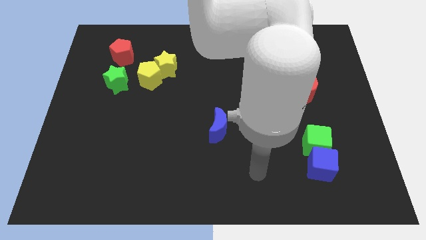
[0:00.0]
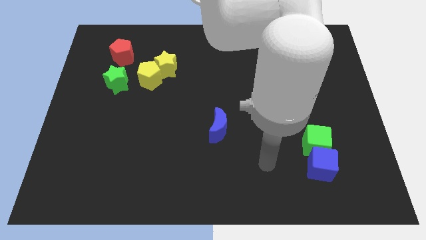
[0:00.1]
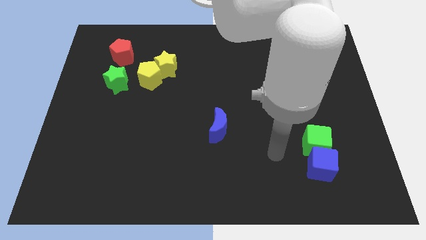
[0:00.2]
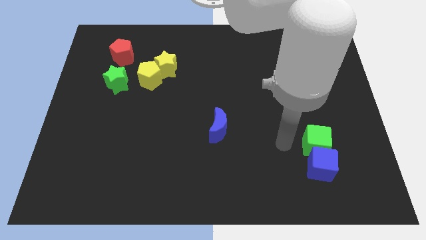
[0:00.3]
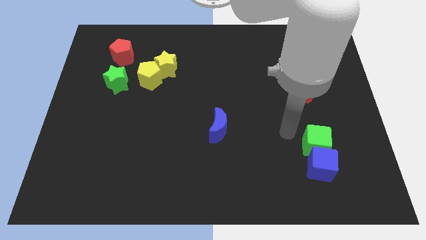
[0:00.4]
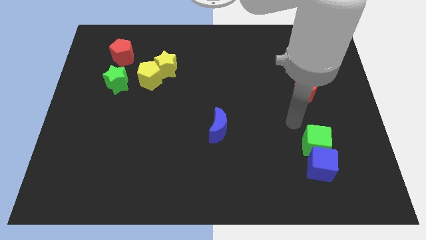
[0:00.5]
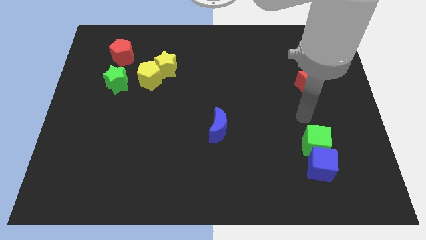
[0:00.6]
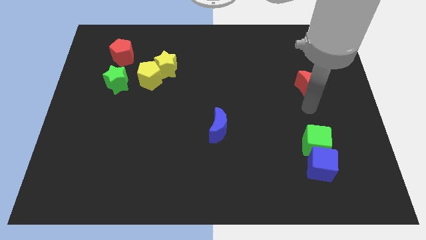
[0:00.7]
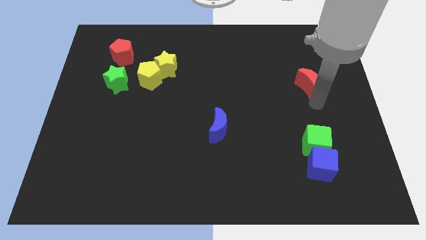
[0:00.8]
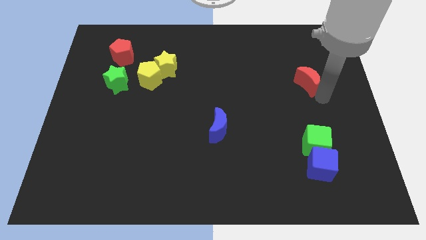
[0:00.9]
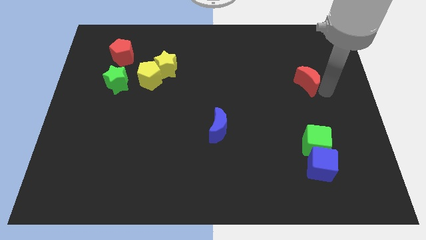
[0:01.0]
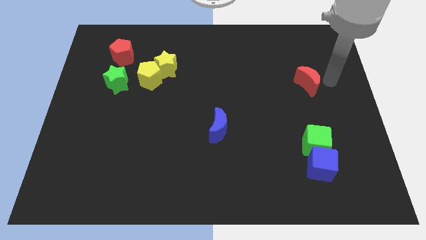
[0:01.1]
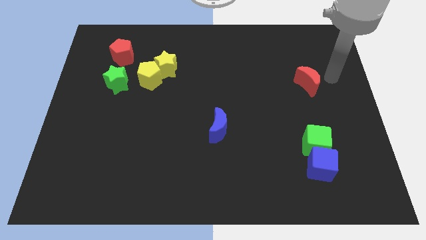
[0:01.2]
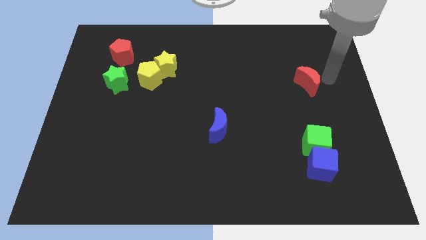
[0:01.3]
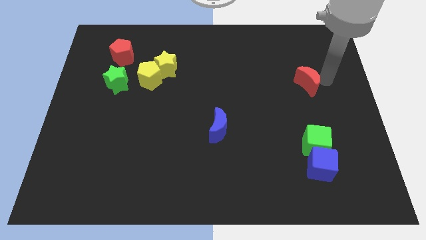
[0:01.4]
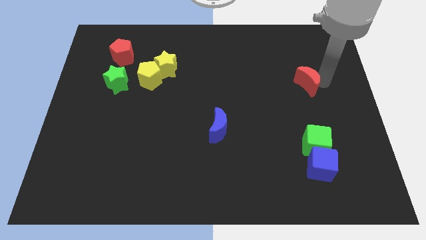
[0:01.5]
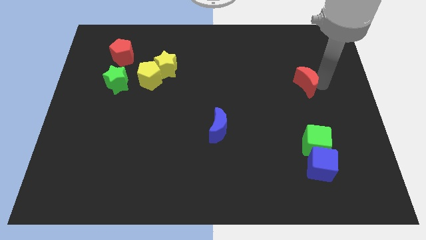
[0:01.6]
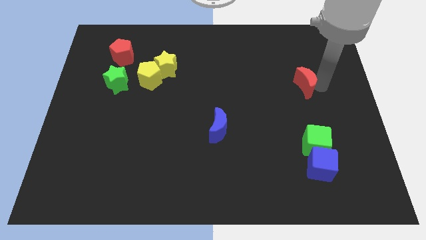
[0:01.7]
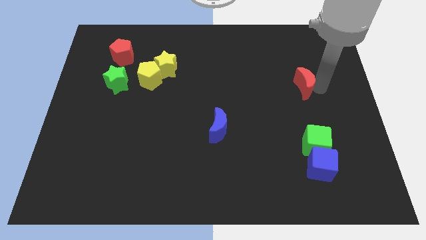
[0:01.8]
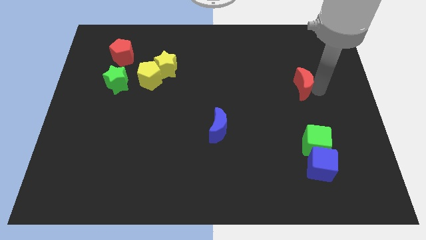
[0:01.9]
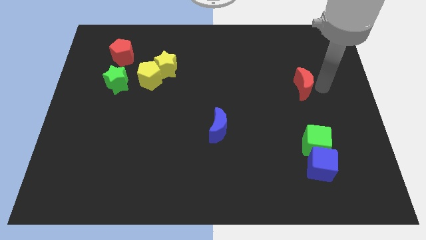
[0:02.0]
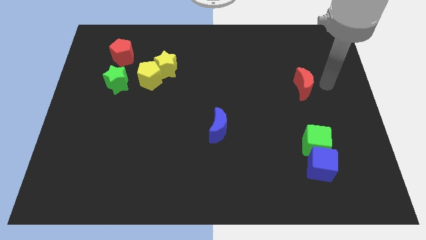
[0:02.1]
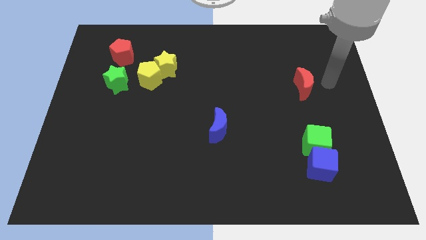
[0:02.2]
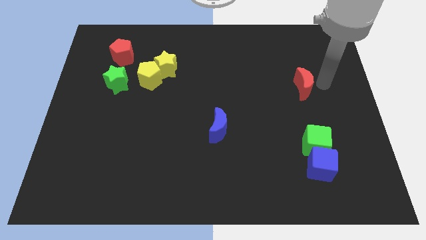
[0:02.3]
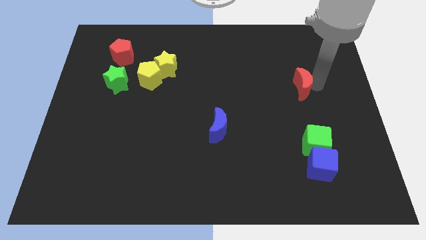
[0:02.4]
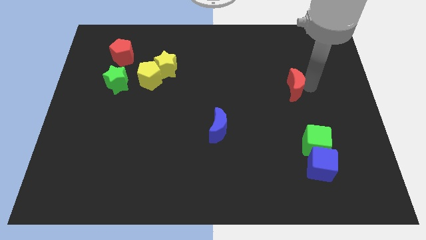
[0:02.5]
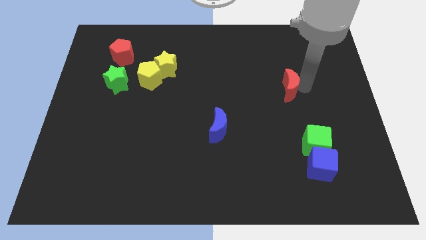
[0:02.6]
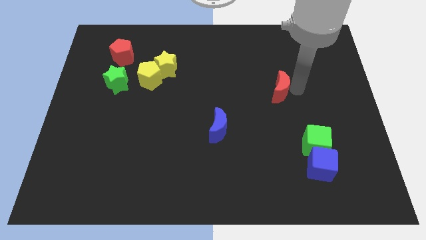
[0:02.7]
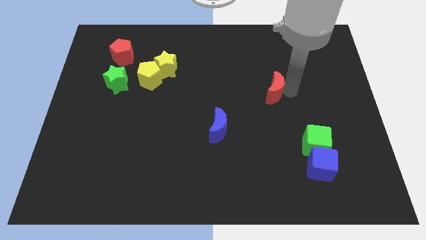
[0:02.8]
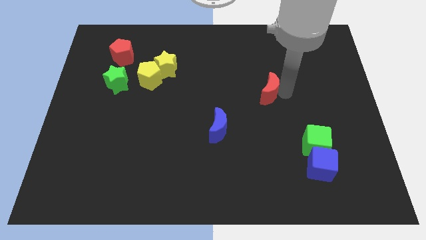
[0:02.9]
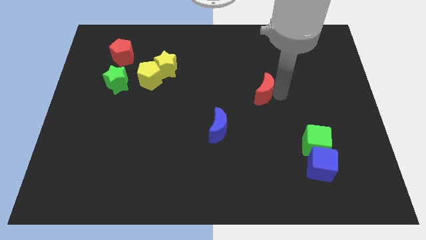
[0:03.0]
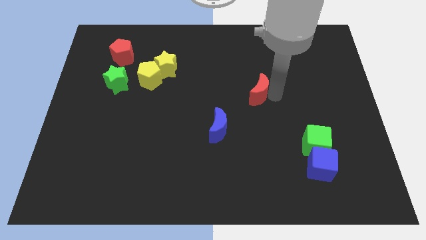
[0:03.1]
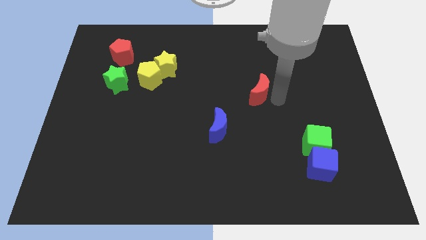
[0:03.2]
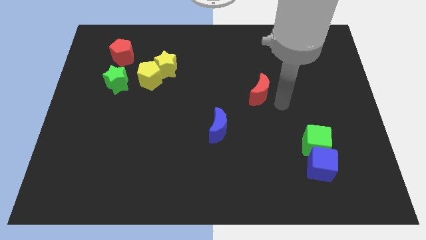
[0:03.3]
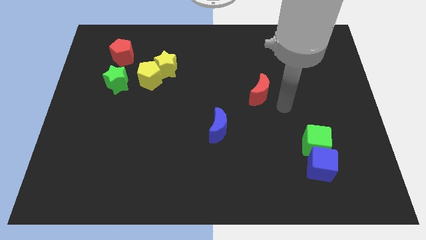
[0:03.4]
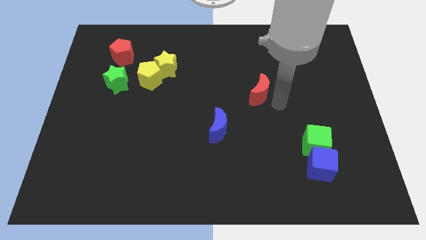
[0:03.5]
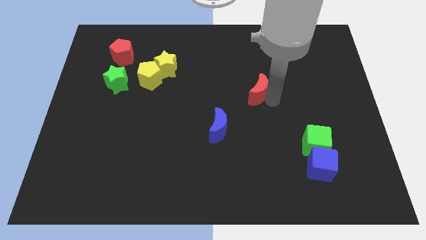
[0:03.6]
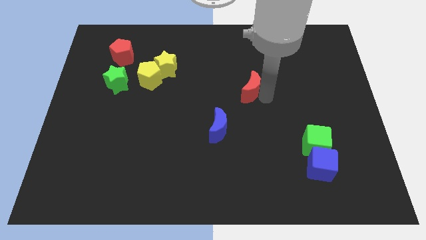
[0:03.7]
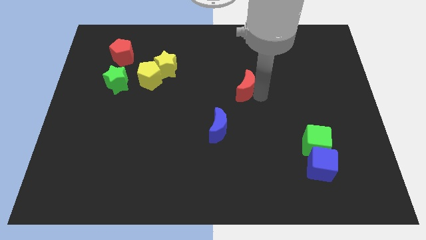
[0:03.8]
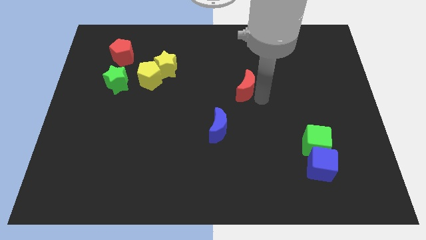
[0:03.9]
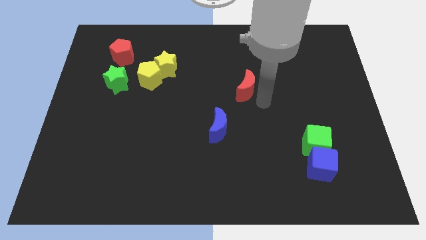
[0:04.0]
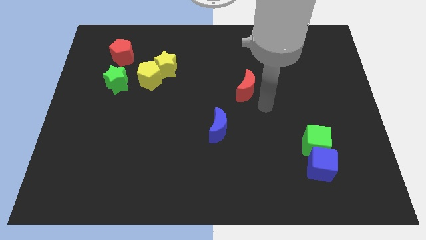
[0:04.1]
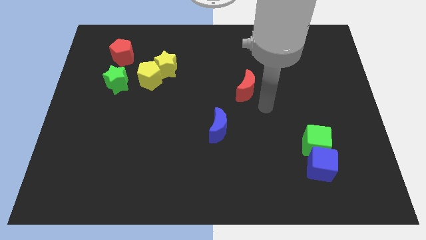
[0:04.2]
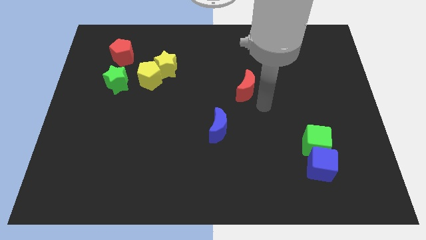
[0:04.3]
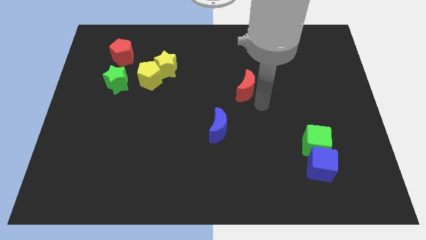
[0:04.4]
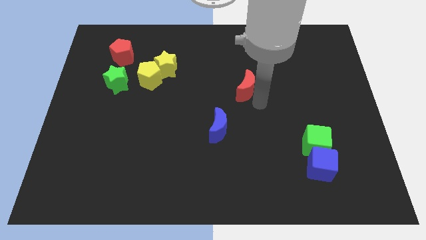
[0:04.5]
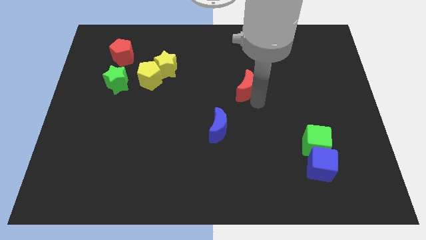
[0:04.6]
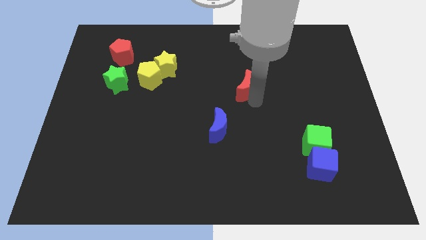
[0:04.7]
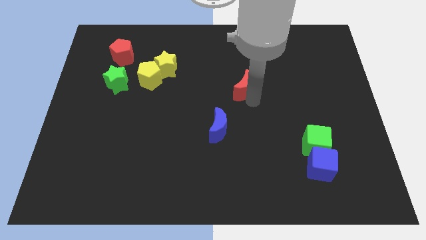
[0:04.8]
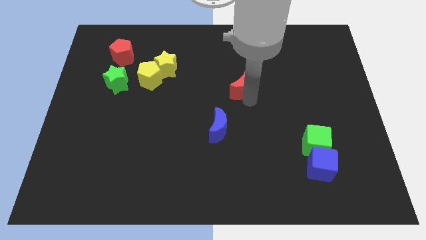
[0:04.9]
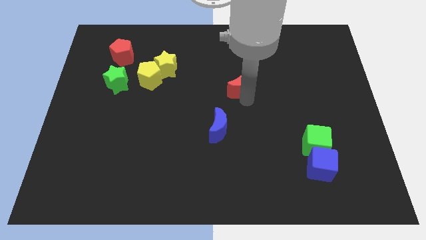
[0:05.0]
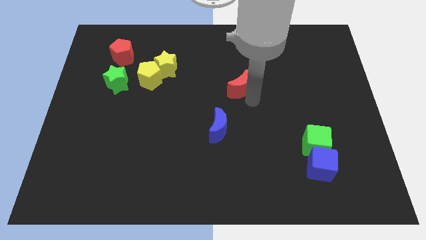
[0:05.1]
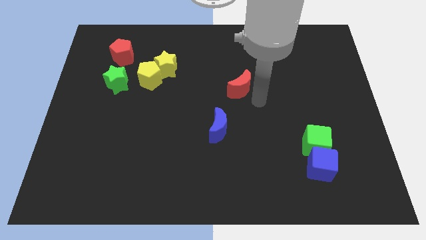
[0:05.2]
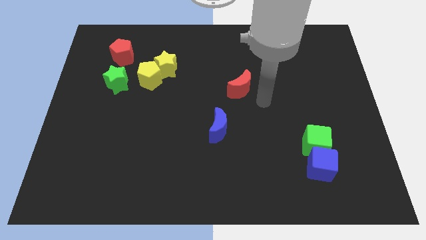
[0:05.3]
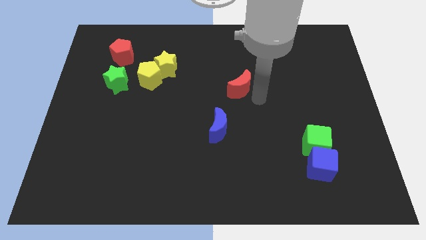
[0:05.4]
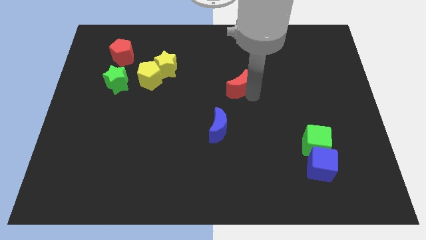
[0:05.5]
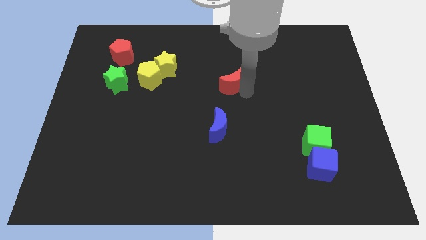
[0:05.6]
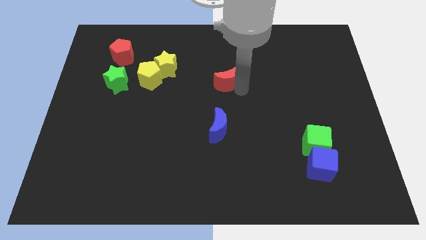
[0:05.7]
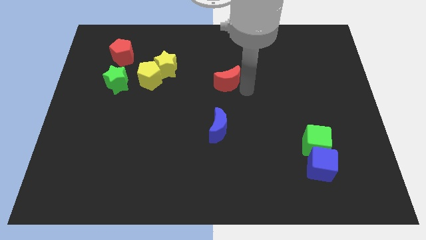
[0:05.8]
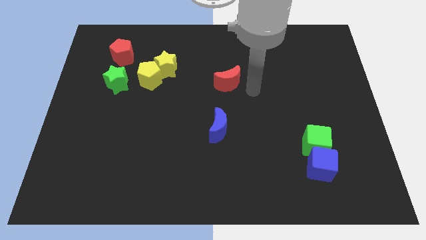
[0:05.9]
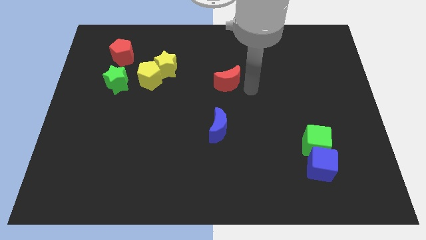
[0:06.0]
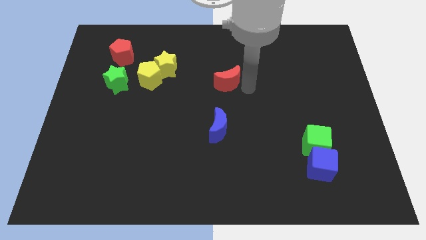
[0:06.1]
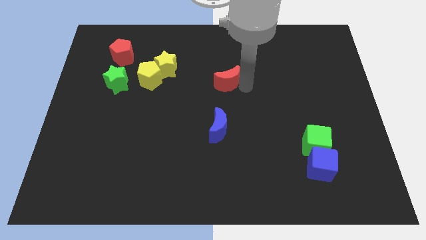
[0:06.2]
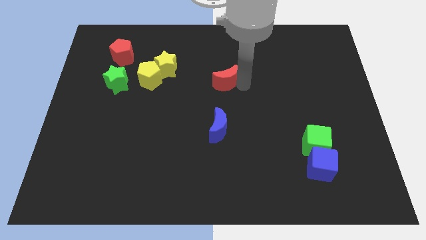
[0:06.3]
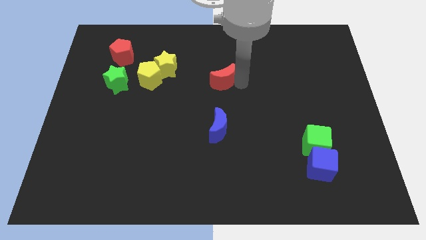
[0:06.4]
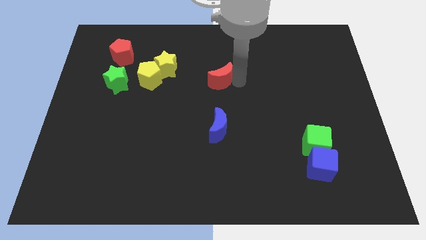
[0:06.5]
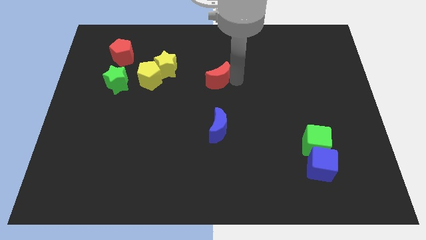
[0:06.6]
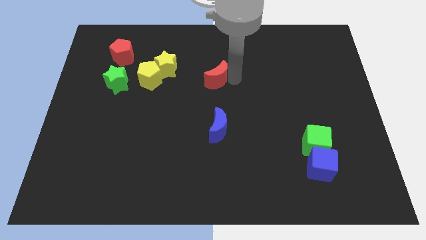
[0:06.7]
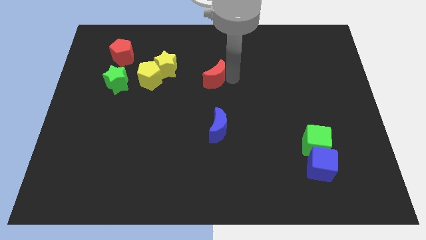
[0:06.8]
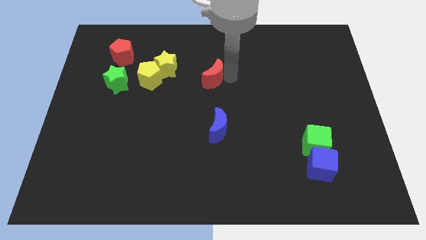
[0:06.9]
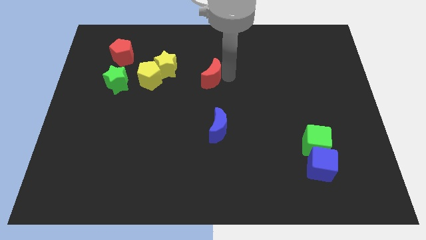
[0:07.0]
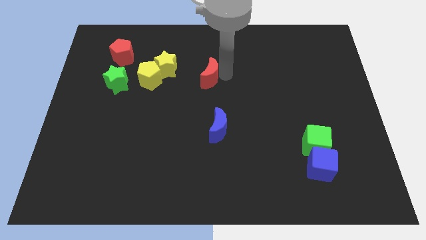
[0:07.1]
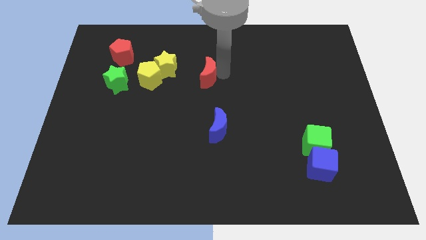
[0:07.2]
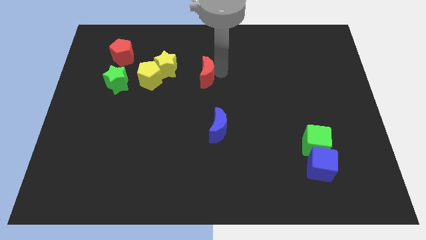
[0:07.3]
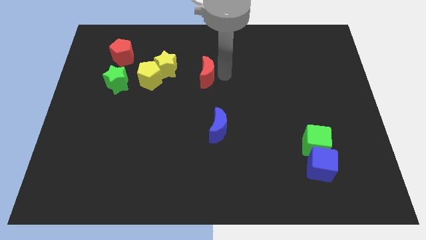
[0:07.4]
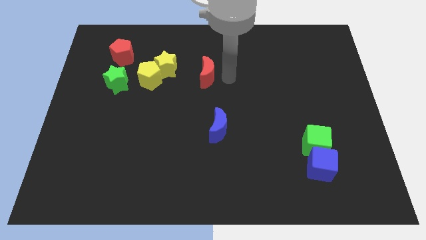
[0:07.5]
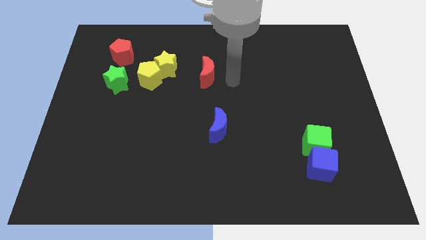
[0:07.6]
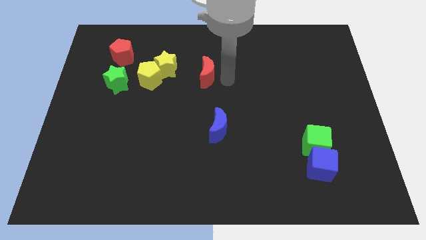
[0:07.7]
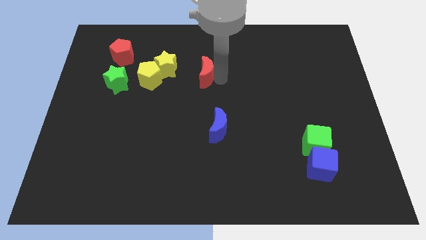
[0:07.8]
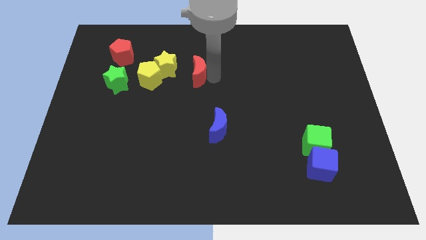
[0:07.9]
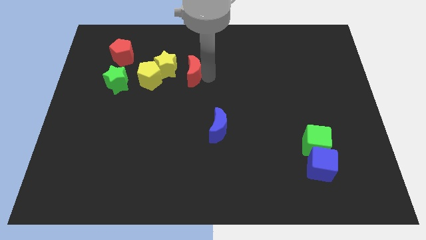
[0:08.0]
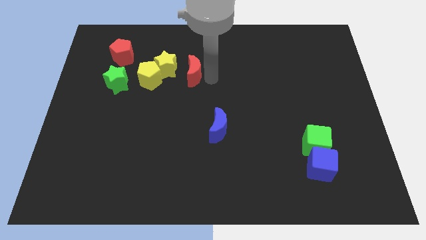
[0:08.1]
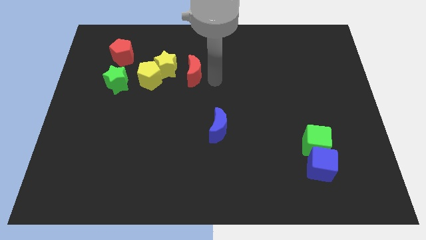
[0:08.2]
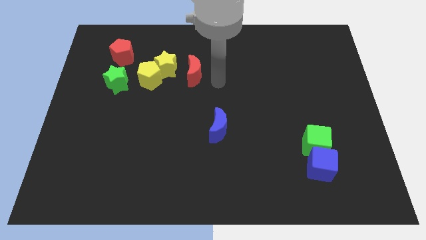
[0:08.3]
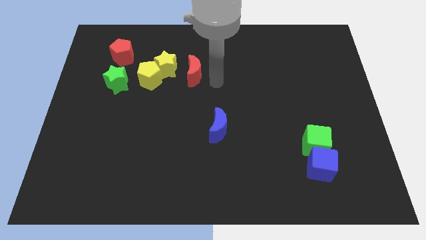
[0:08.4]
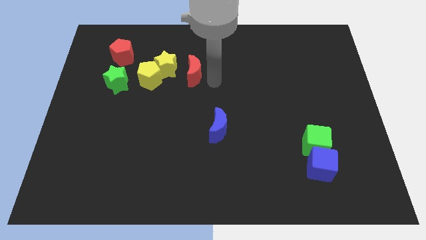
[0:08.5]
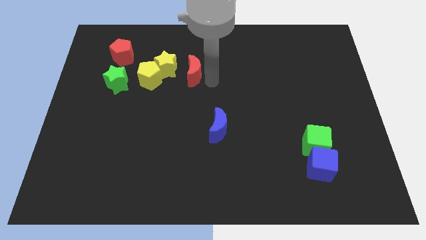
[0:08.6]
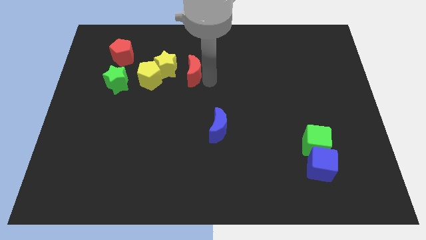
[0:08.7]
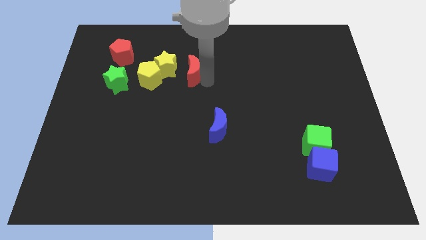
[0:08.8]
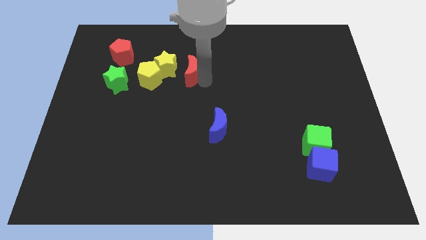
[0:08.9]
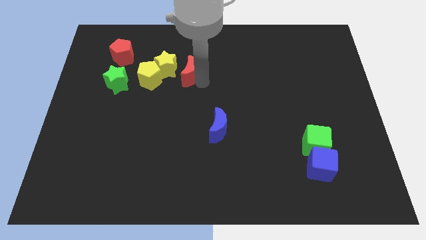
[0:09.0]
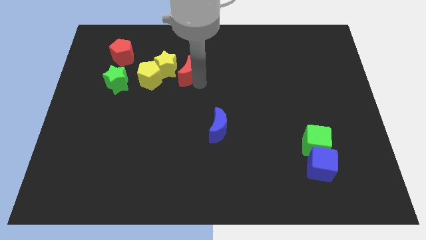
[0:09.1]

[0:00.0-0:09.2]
put the red moon to the yellow star
